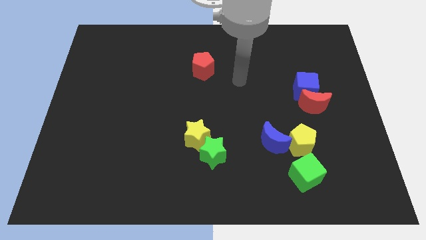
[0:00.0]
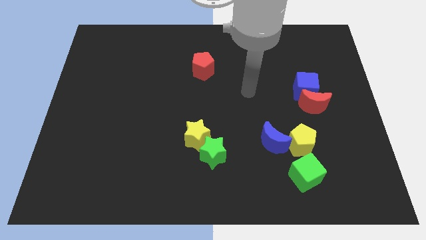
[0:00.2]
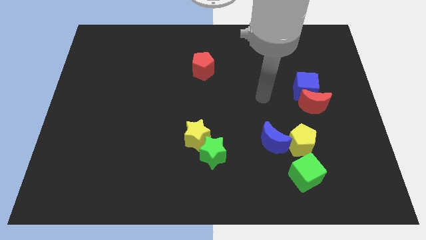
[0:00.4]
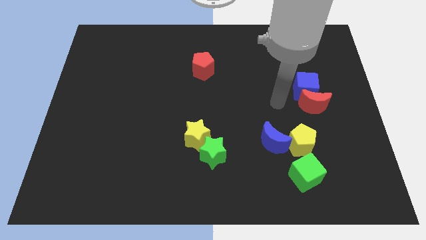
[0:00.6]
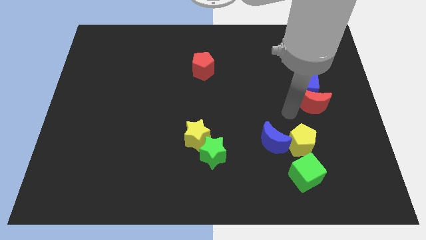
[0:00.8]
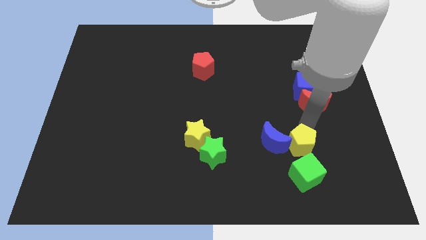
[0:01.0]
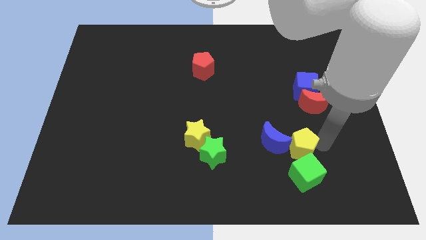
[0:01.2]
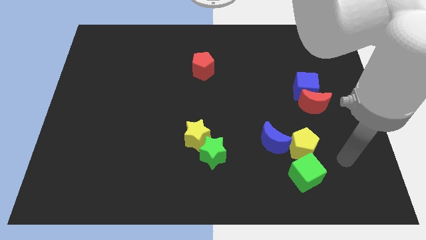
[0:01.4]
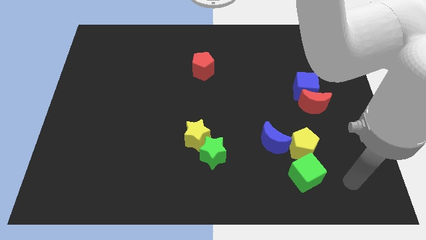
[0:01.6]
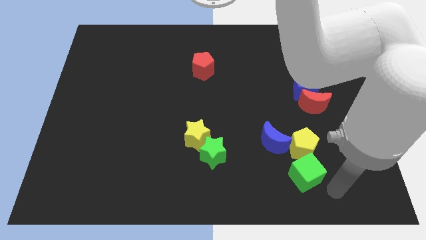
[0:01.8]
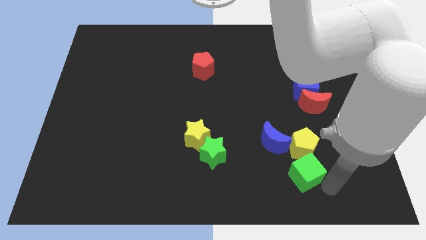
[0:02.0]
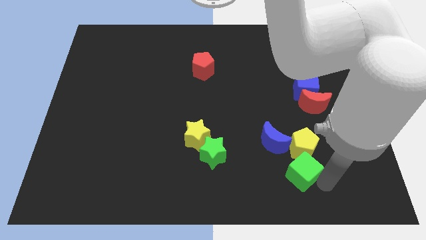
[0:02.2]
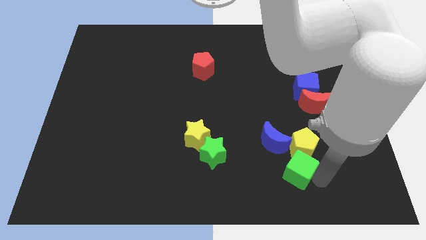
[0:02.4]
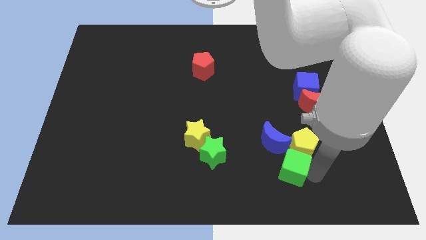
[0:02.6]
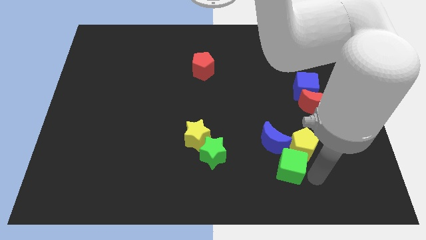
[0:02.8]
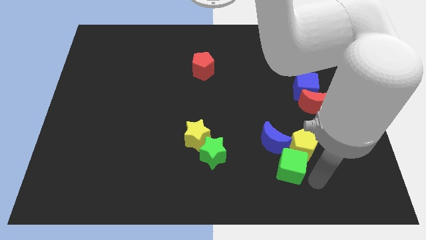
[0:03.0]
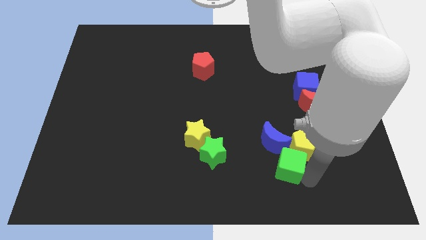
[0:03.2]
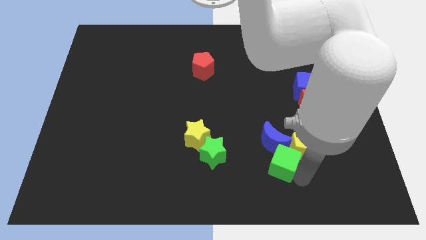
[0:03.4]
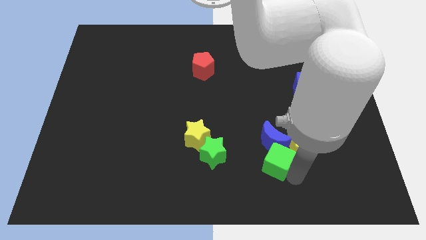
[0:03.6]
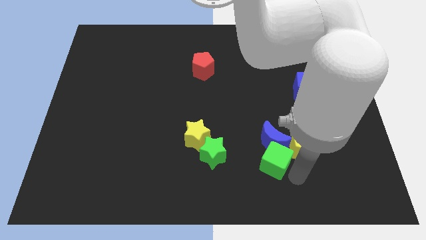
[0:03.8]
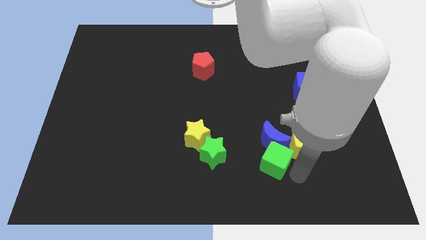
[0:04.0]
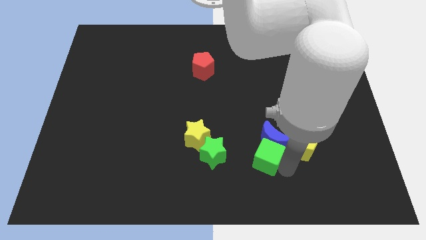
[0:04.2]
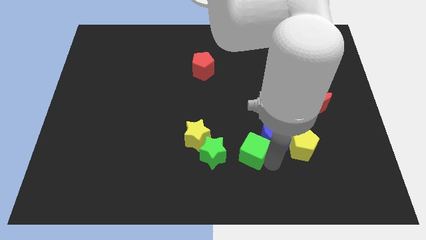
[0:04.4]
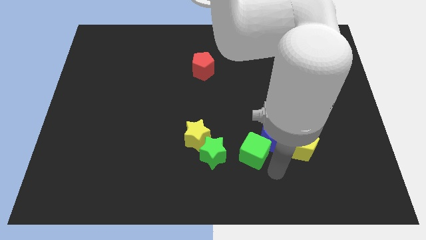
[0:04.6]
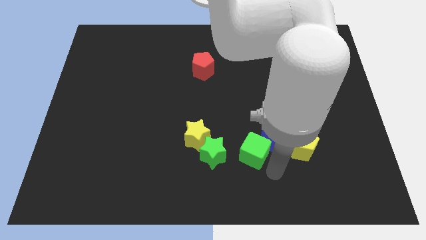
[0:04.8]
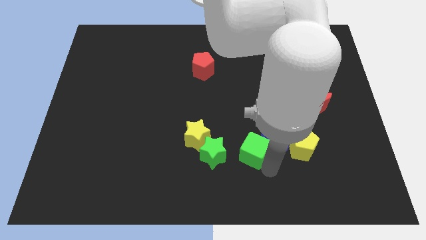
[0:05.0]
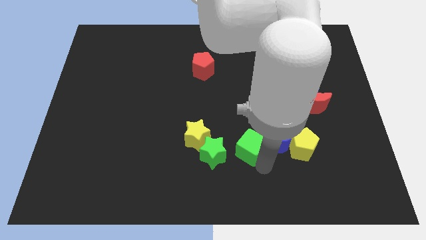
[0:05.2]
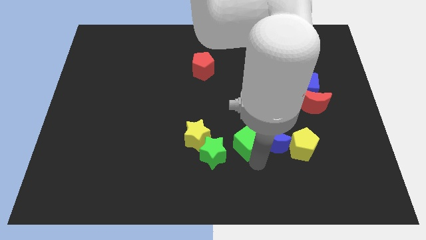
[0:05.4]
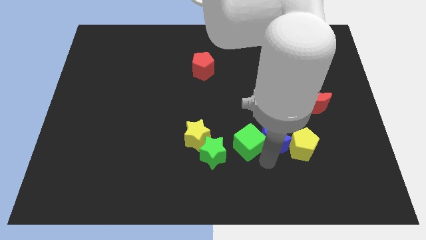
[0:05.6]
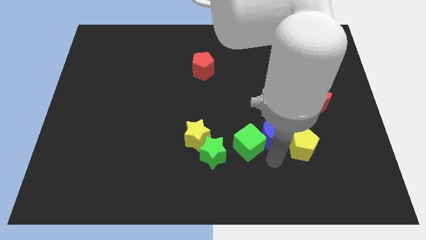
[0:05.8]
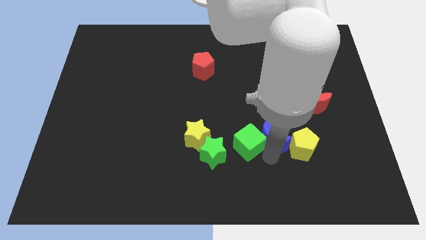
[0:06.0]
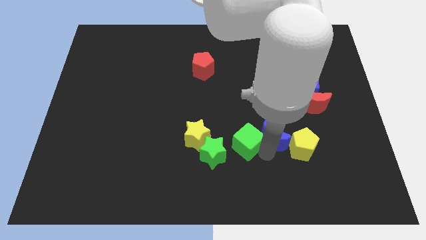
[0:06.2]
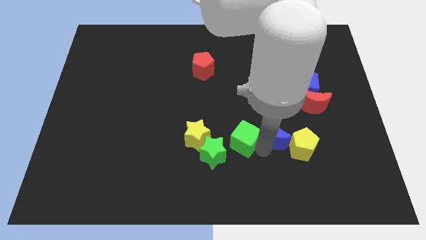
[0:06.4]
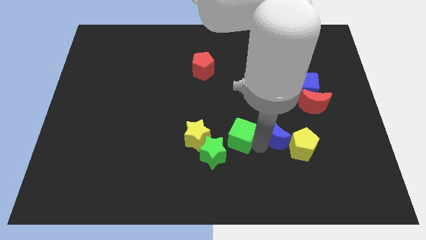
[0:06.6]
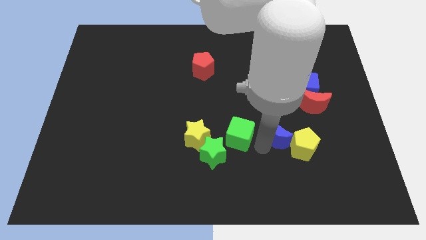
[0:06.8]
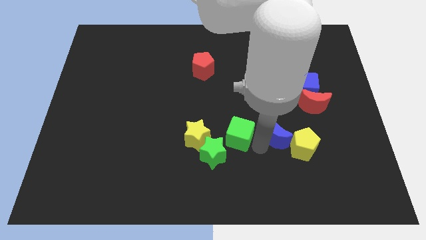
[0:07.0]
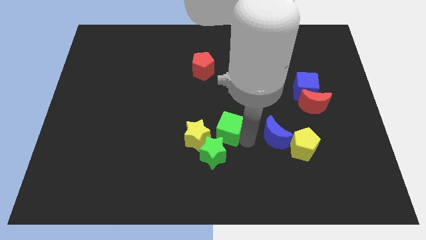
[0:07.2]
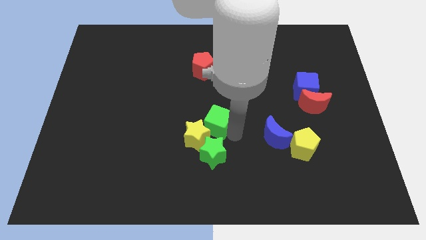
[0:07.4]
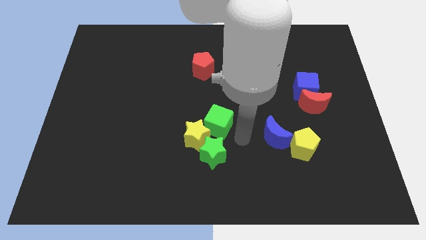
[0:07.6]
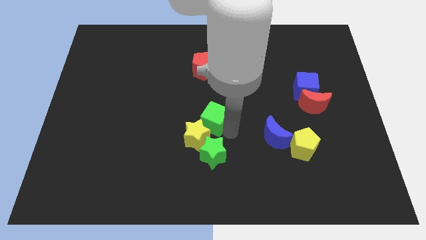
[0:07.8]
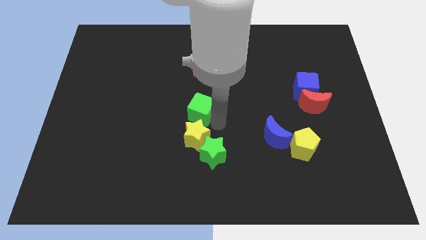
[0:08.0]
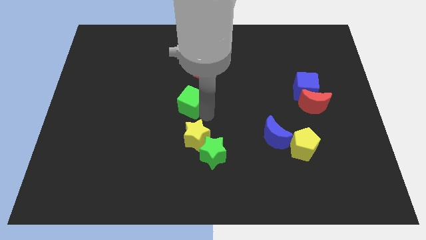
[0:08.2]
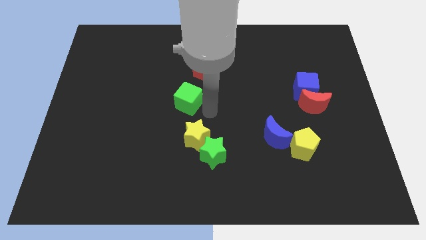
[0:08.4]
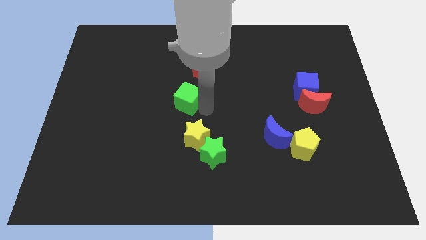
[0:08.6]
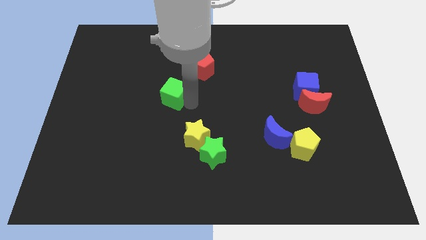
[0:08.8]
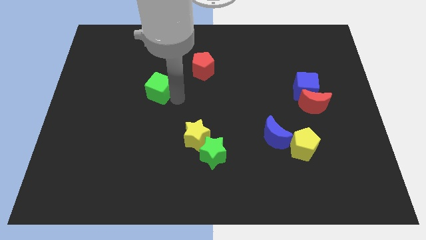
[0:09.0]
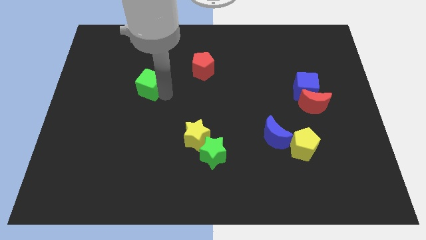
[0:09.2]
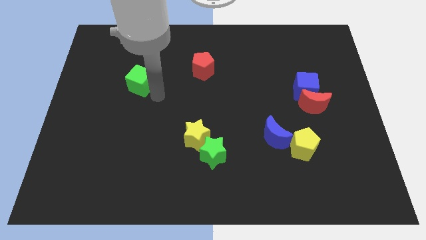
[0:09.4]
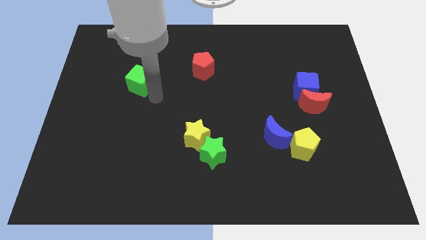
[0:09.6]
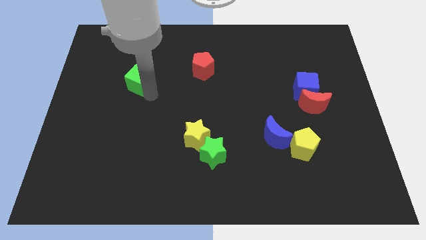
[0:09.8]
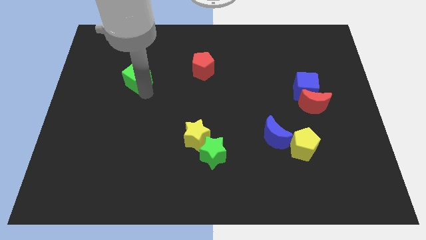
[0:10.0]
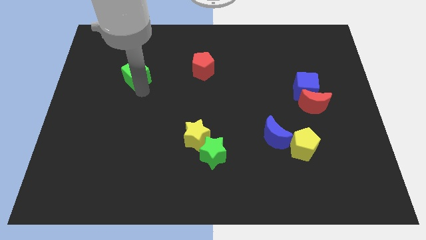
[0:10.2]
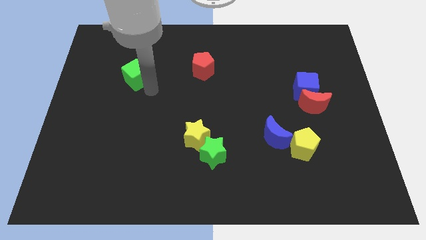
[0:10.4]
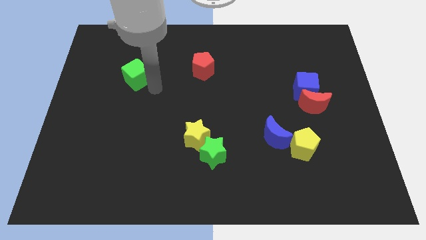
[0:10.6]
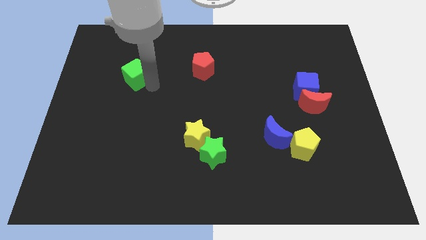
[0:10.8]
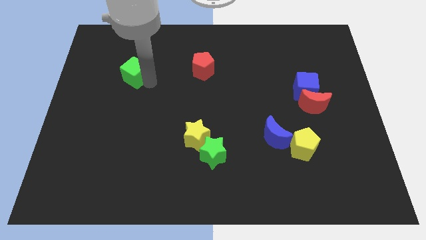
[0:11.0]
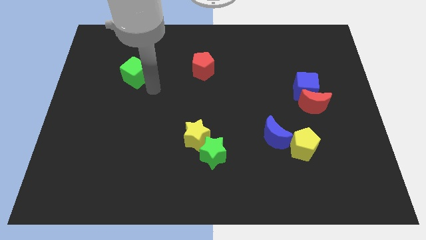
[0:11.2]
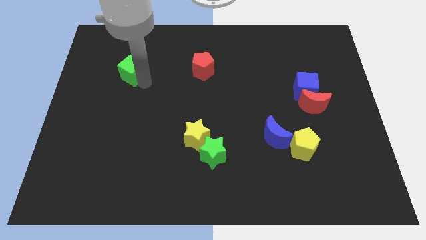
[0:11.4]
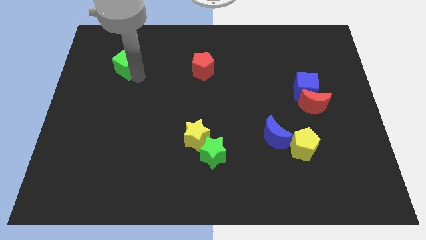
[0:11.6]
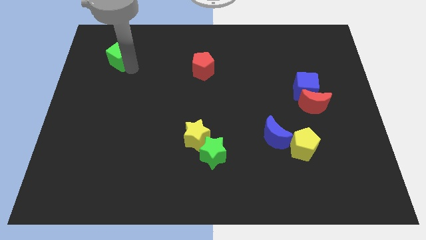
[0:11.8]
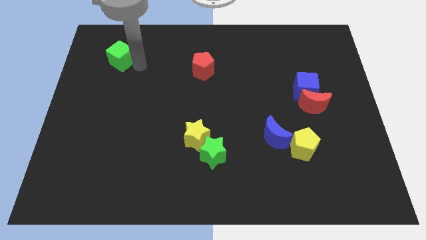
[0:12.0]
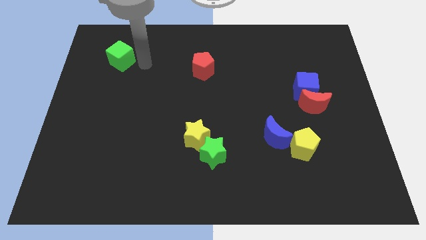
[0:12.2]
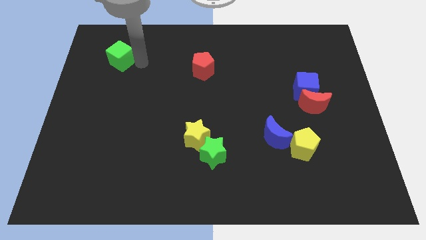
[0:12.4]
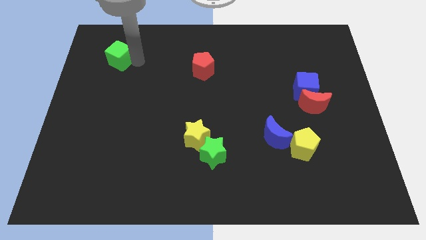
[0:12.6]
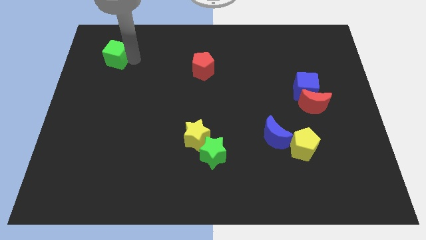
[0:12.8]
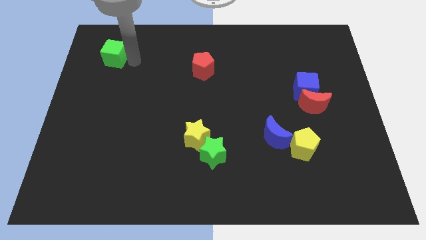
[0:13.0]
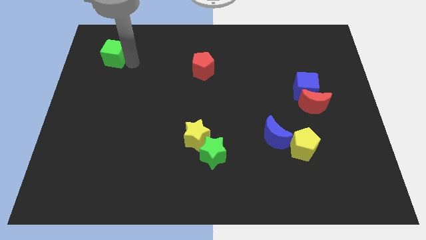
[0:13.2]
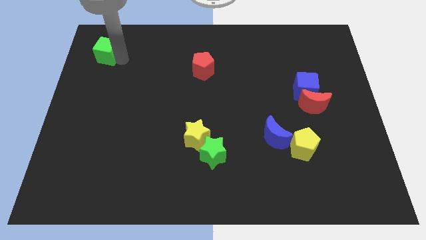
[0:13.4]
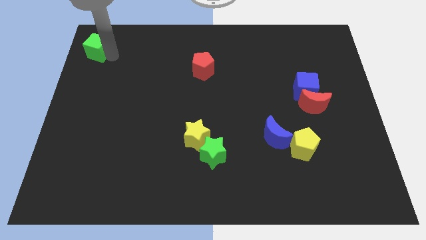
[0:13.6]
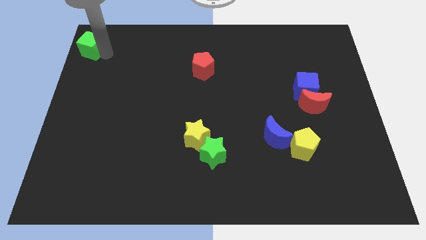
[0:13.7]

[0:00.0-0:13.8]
push the green cube to the upper left corner
